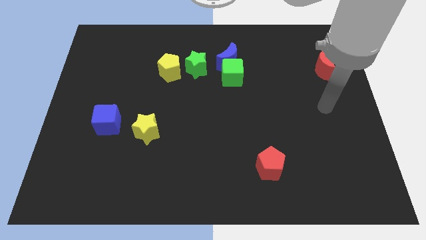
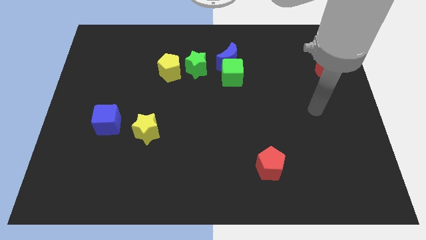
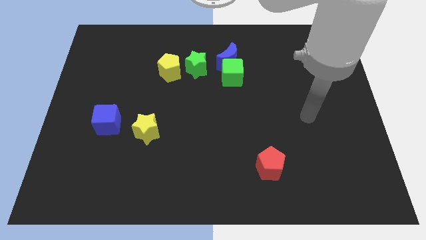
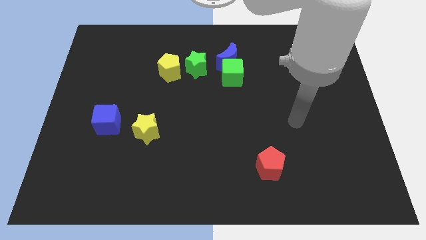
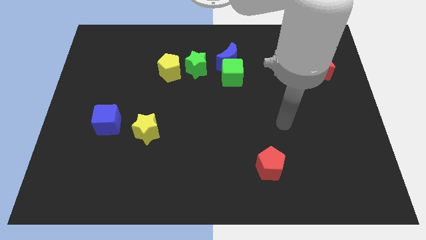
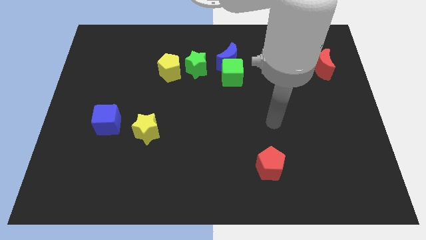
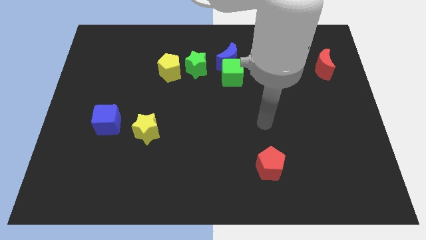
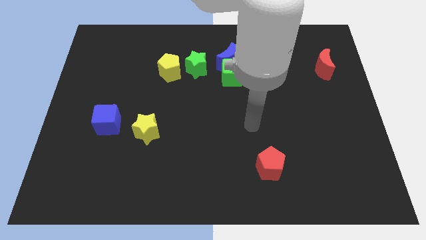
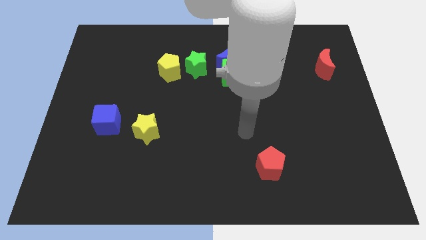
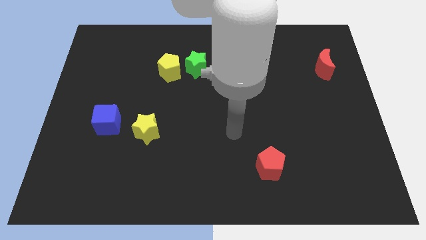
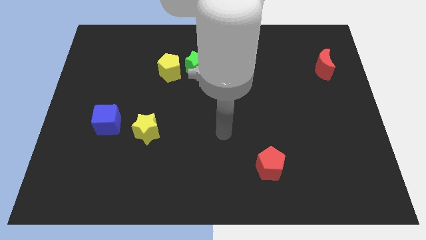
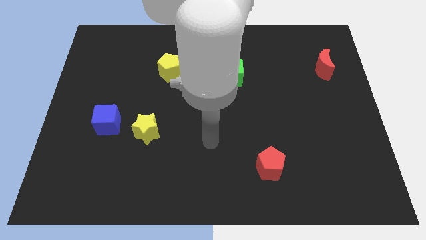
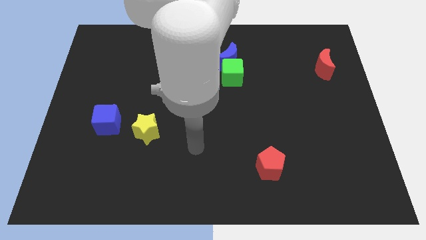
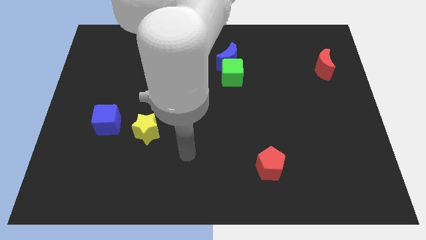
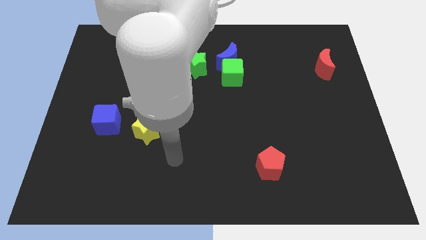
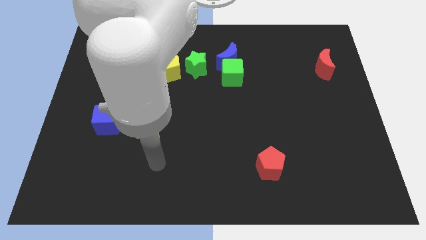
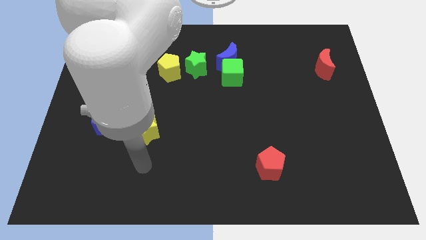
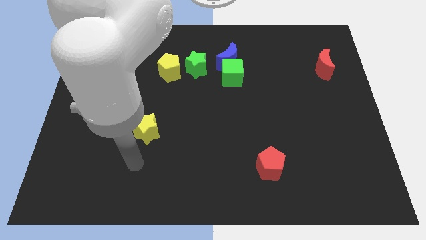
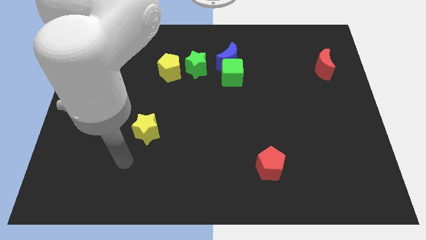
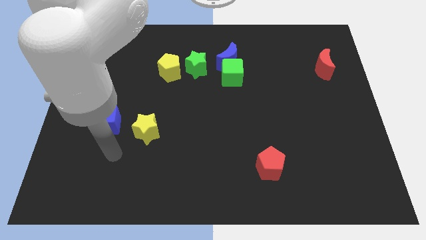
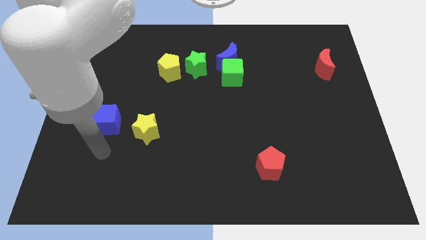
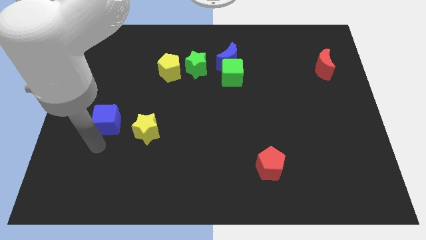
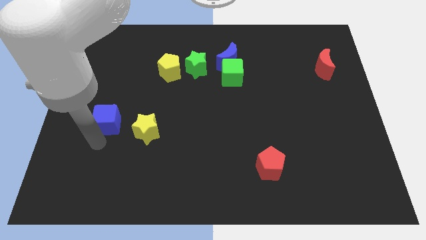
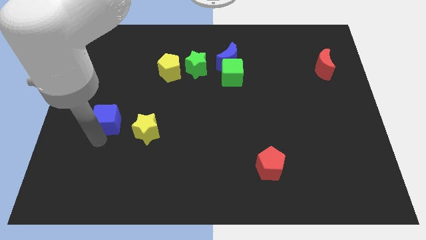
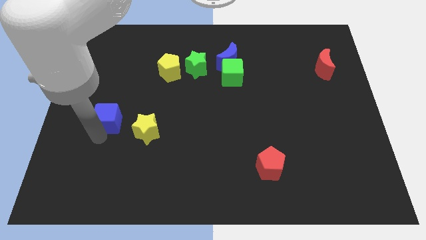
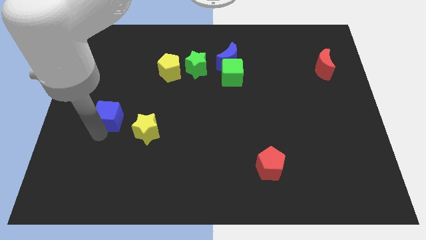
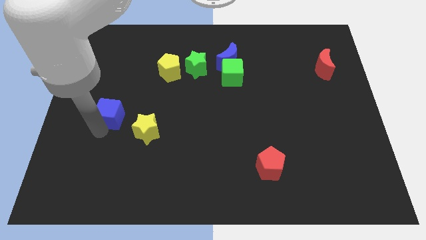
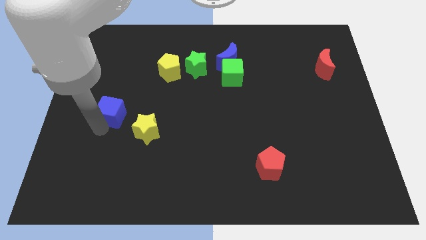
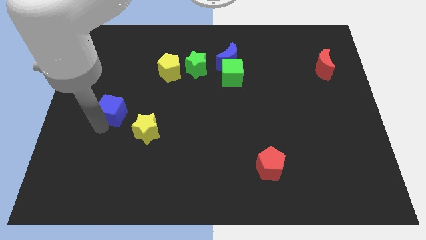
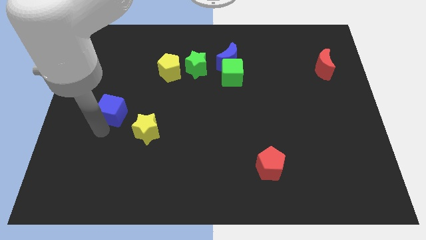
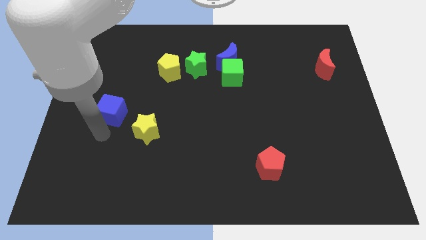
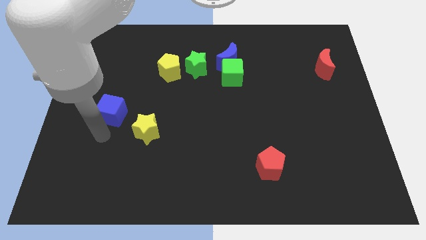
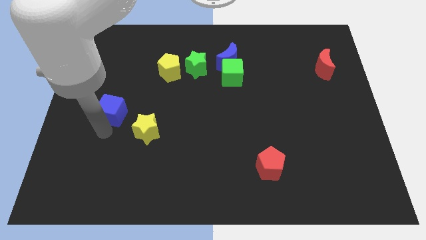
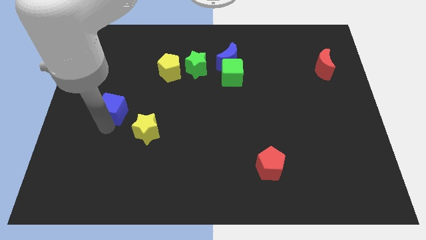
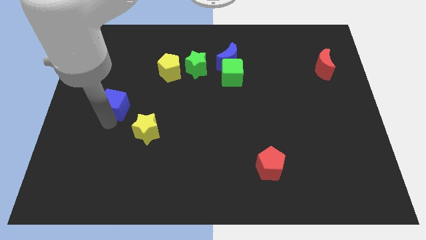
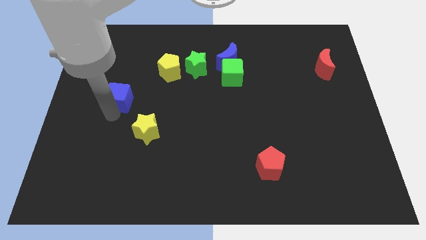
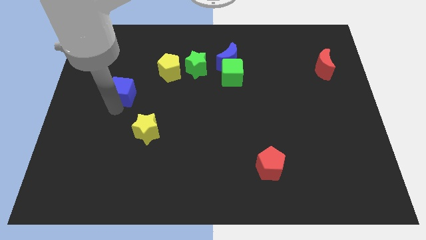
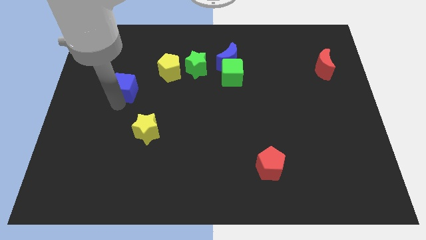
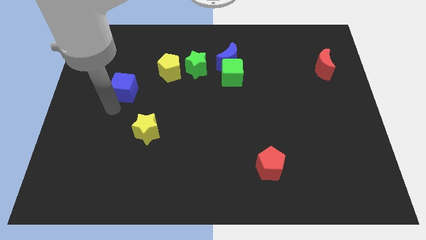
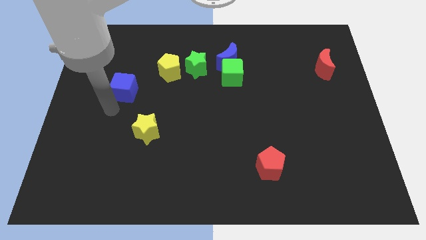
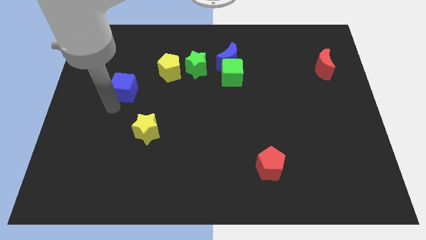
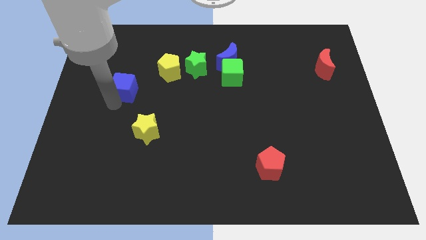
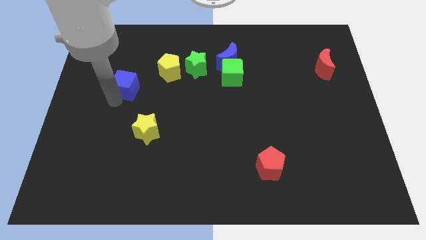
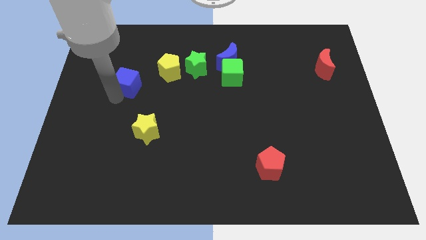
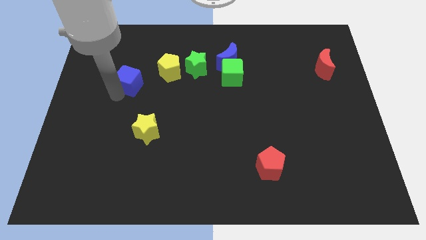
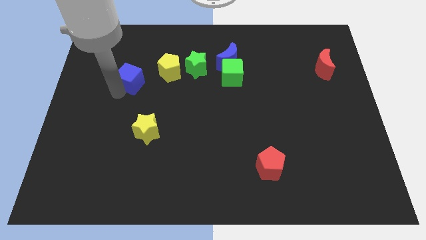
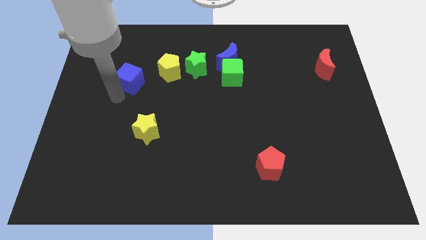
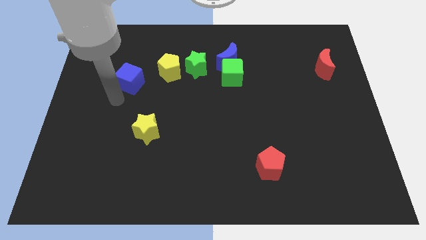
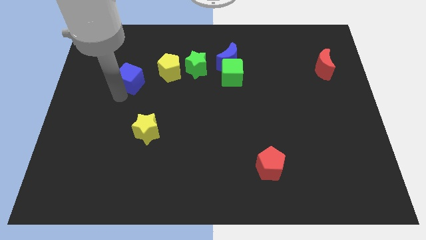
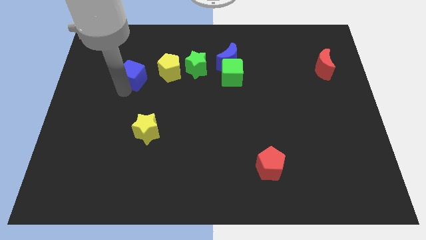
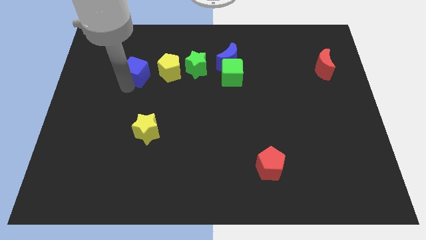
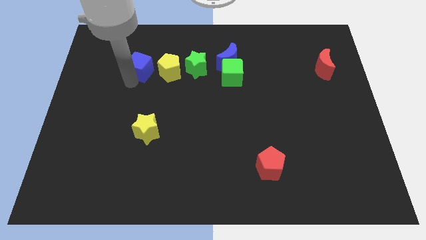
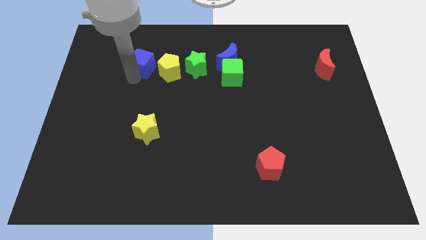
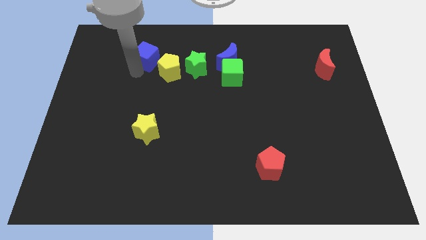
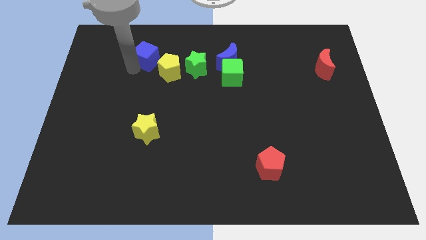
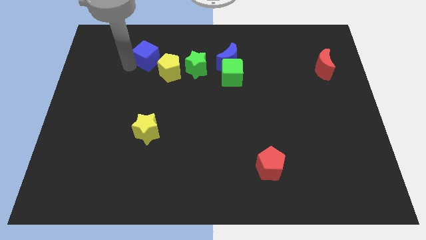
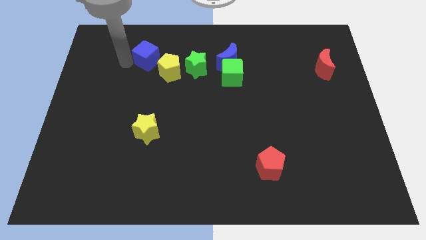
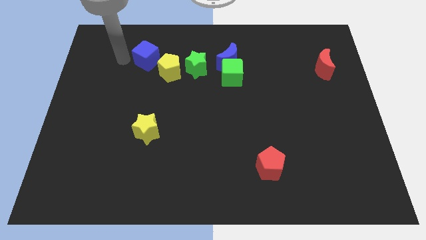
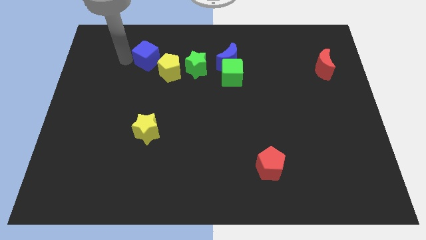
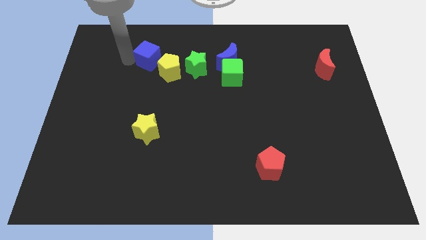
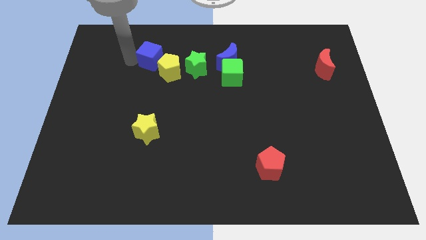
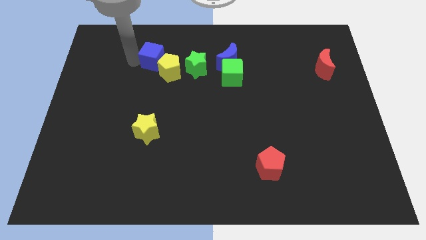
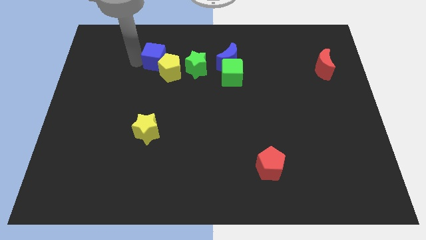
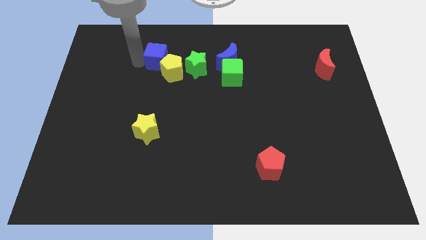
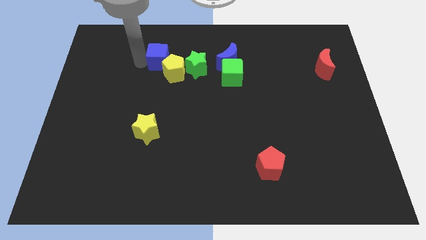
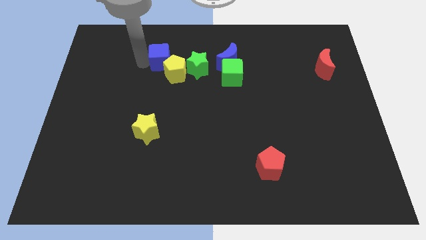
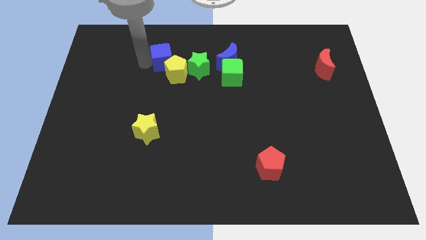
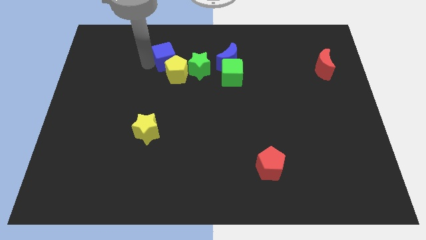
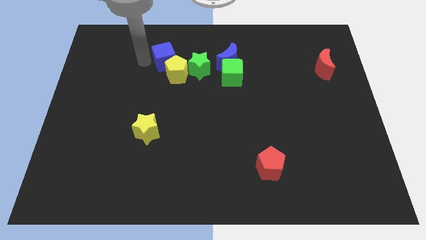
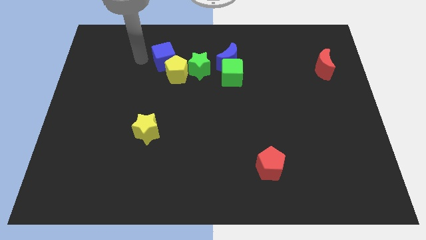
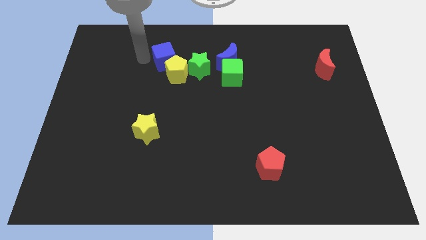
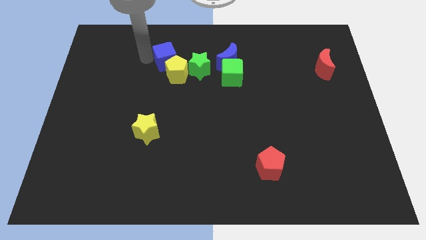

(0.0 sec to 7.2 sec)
push the blue cube left of the blue moon
